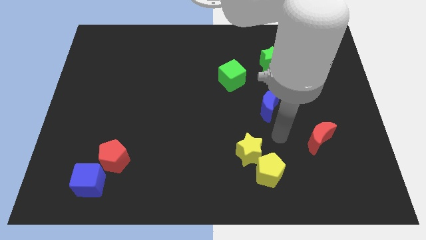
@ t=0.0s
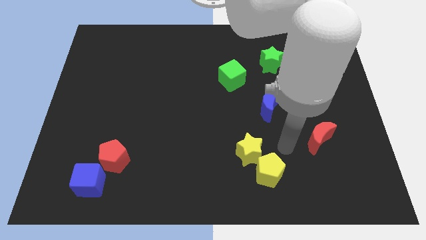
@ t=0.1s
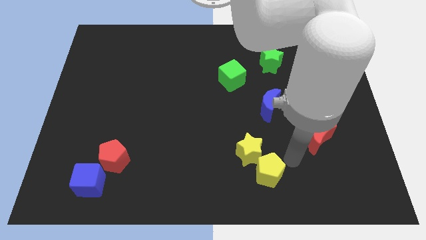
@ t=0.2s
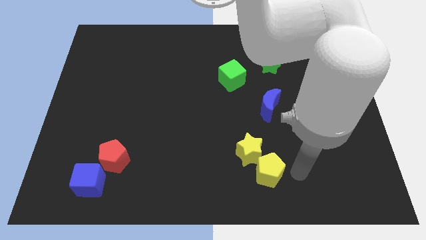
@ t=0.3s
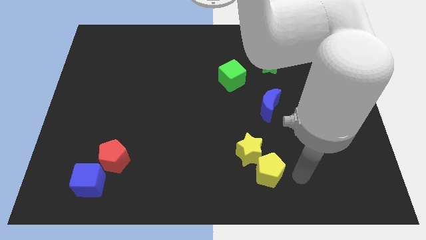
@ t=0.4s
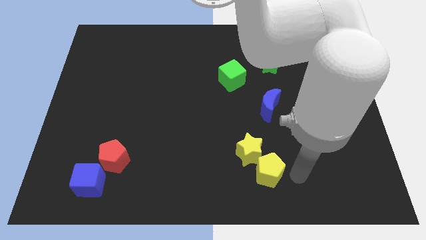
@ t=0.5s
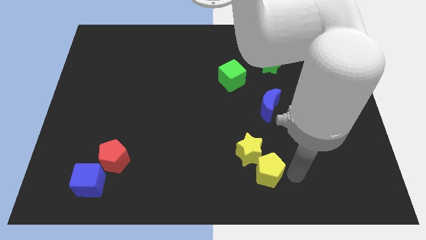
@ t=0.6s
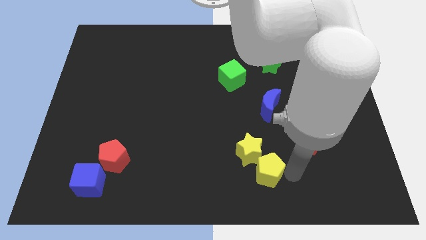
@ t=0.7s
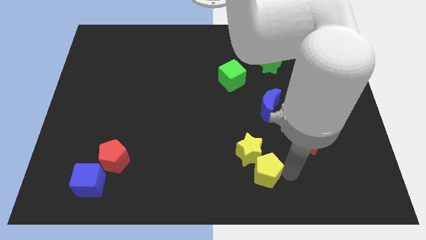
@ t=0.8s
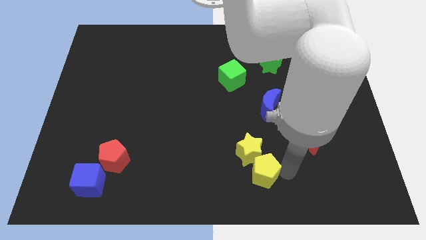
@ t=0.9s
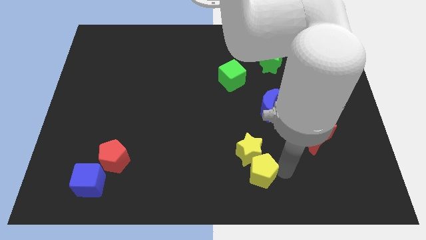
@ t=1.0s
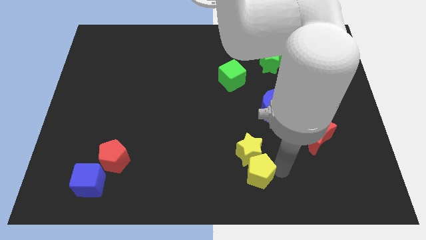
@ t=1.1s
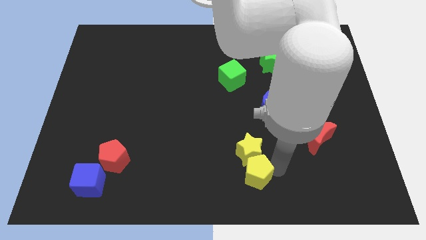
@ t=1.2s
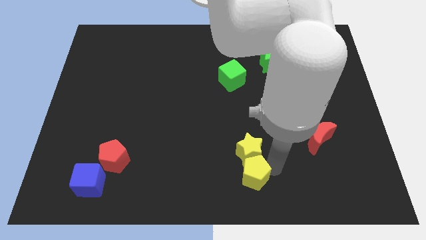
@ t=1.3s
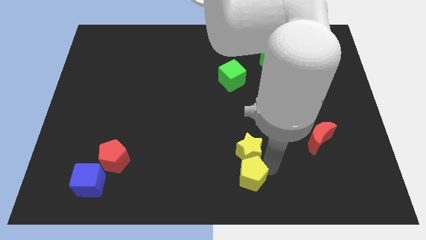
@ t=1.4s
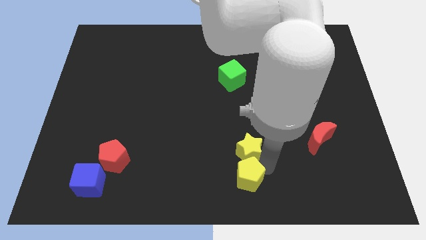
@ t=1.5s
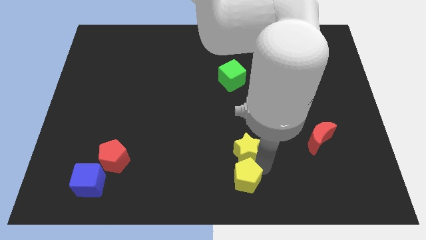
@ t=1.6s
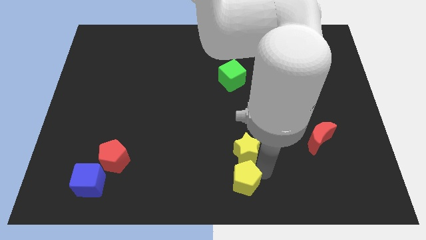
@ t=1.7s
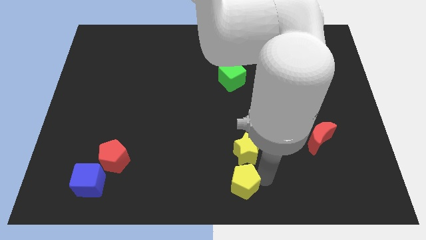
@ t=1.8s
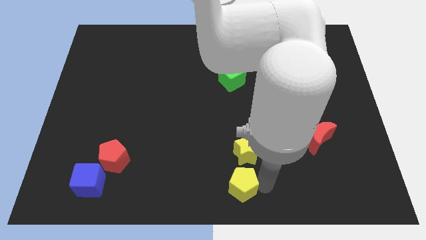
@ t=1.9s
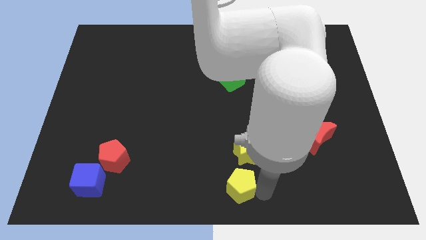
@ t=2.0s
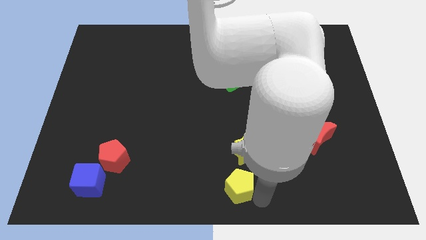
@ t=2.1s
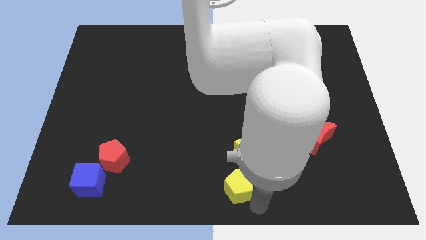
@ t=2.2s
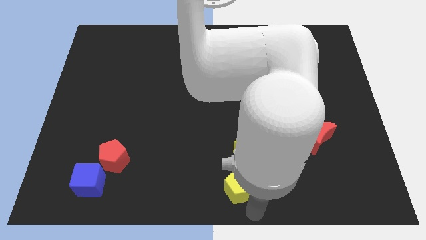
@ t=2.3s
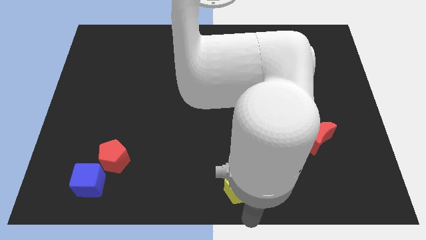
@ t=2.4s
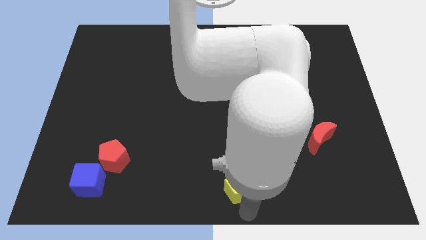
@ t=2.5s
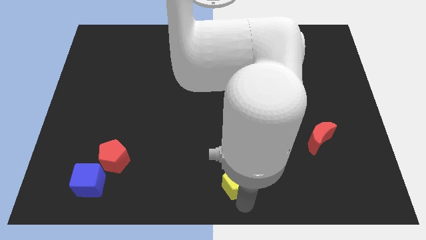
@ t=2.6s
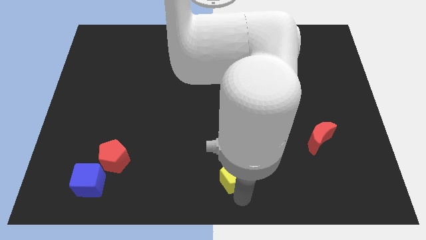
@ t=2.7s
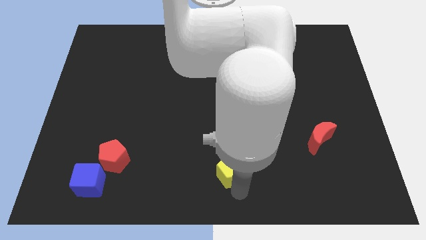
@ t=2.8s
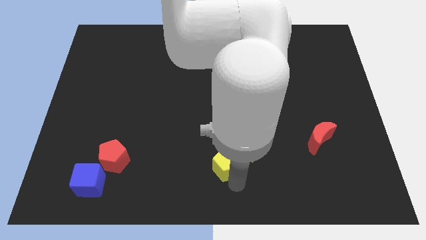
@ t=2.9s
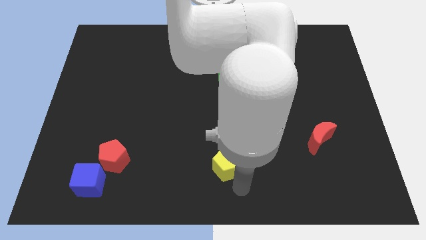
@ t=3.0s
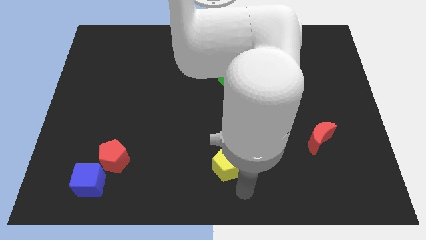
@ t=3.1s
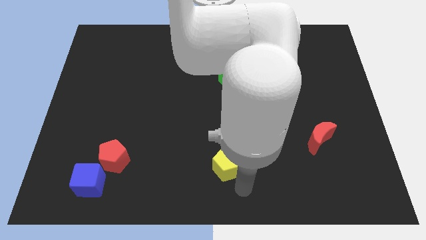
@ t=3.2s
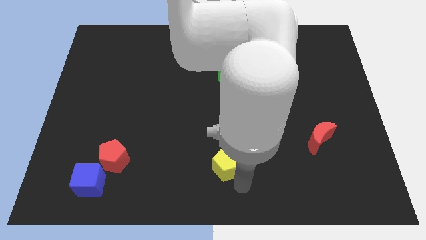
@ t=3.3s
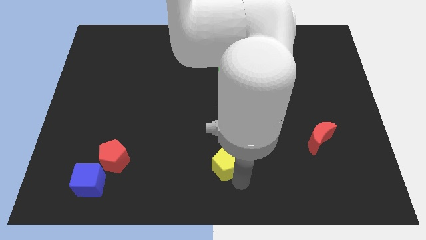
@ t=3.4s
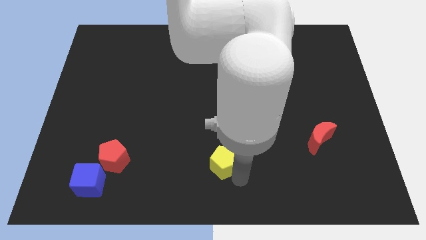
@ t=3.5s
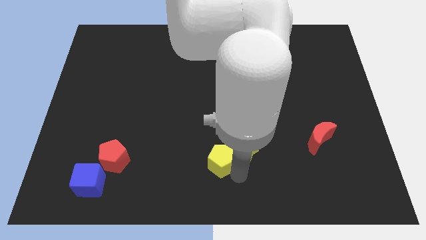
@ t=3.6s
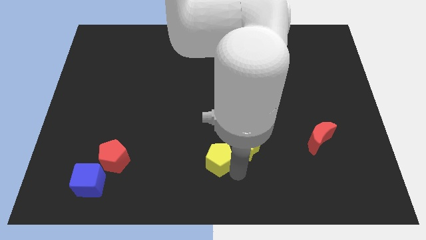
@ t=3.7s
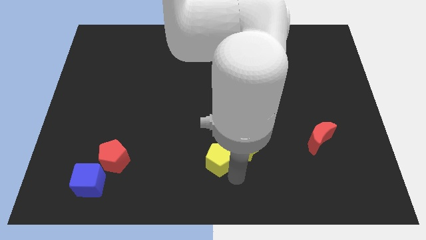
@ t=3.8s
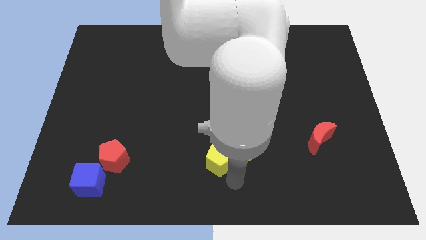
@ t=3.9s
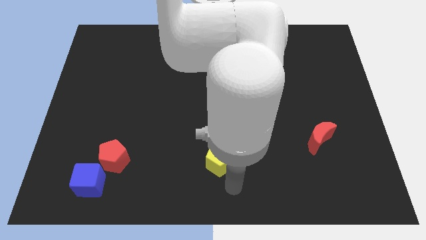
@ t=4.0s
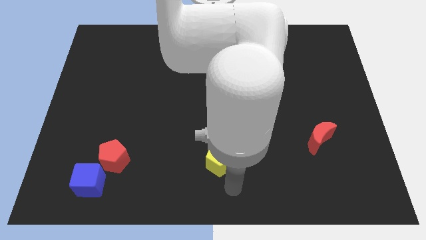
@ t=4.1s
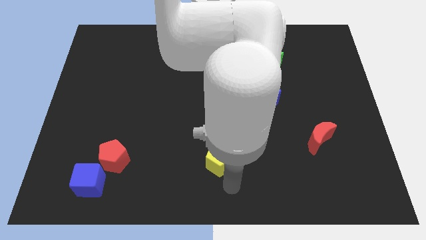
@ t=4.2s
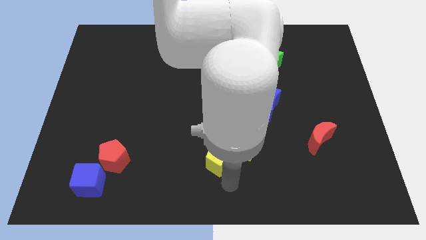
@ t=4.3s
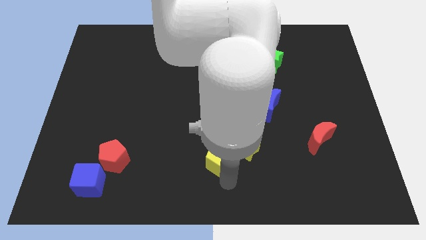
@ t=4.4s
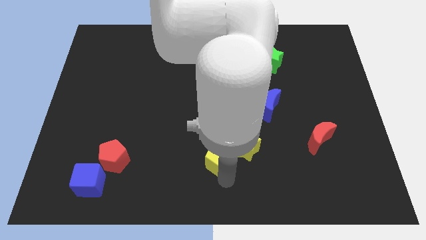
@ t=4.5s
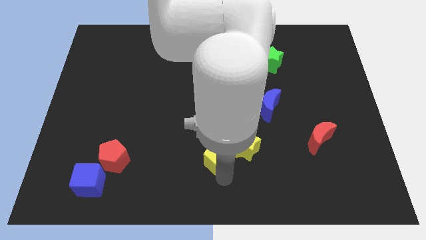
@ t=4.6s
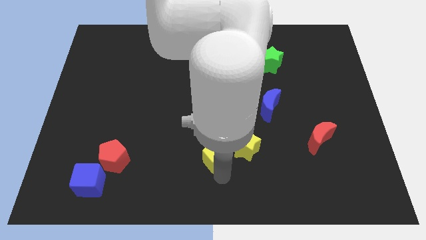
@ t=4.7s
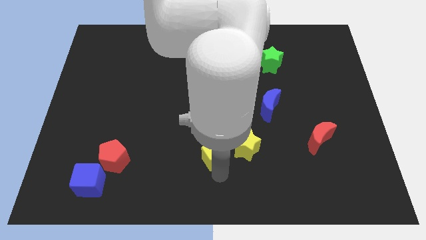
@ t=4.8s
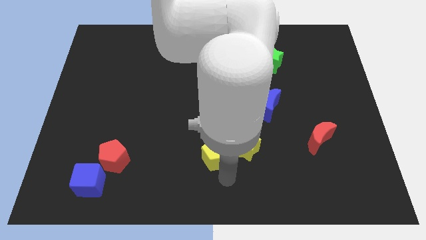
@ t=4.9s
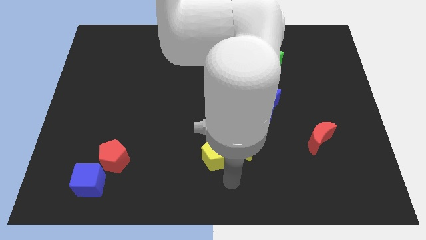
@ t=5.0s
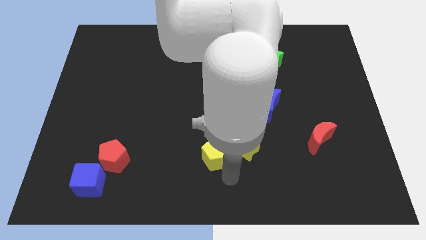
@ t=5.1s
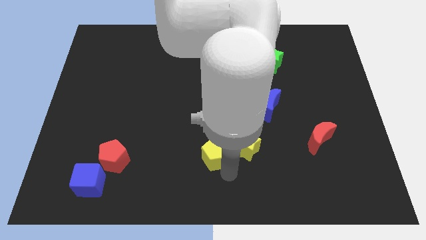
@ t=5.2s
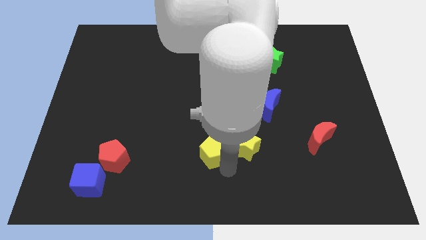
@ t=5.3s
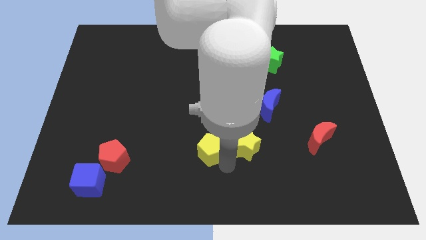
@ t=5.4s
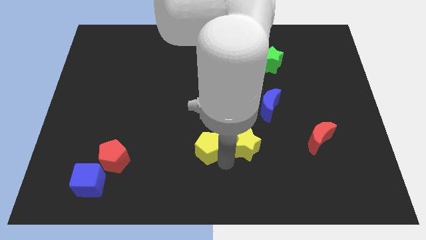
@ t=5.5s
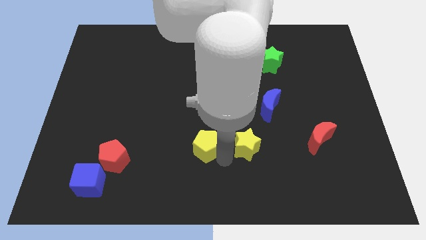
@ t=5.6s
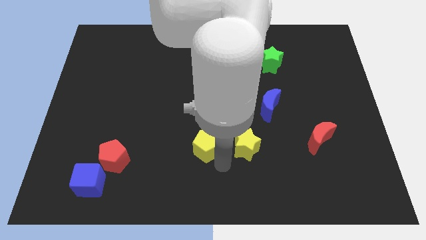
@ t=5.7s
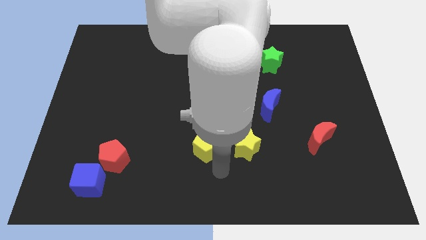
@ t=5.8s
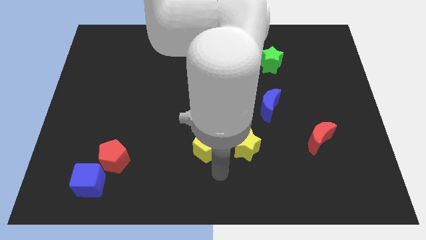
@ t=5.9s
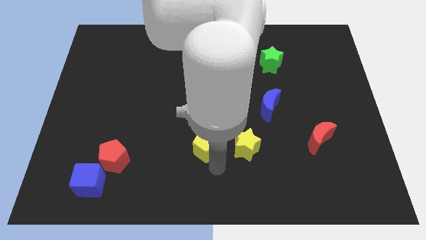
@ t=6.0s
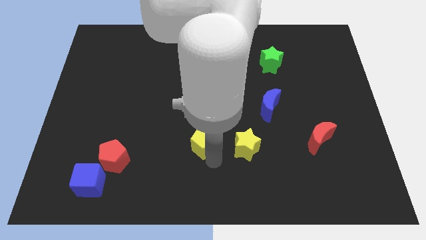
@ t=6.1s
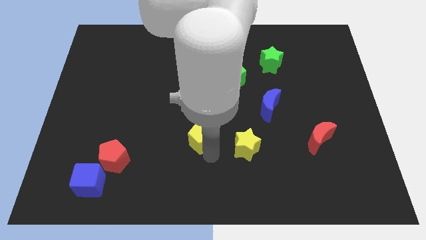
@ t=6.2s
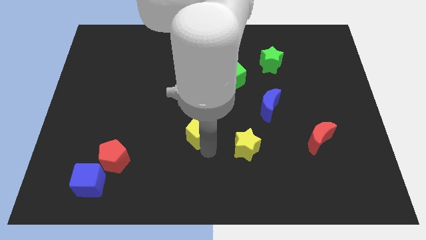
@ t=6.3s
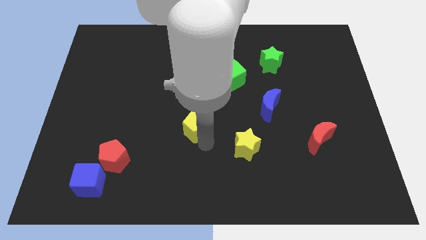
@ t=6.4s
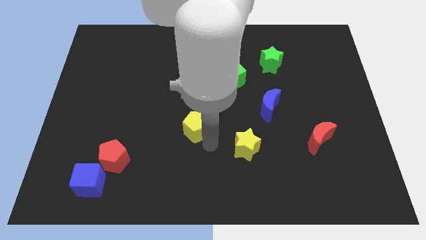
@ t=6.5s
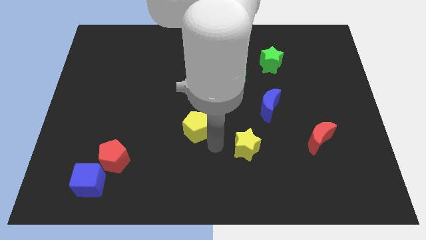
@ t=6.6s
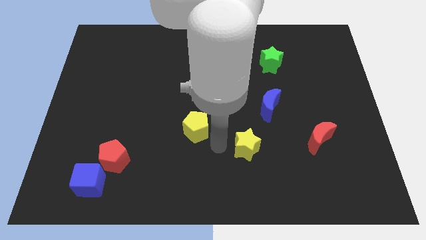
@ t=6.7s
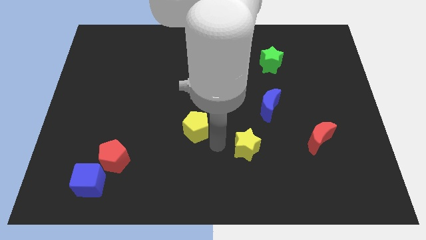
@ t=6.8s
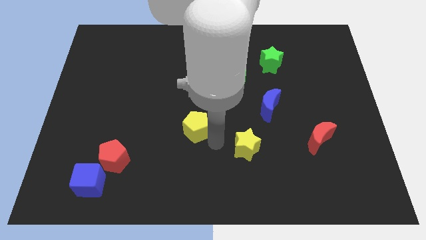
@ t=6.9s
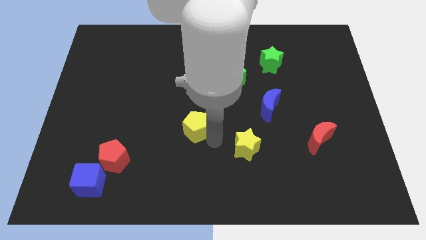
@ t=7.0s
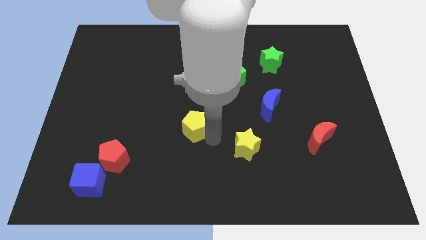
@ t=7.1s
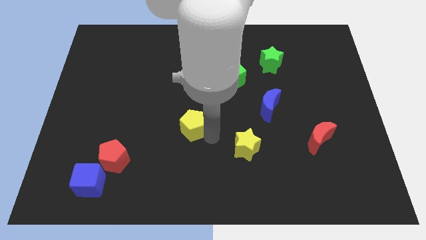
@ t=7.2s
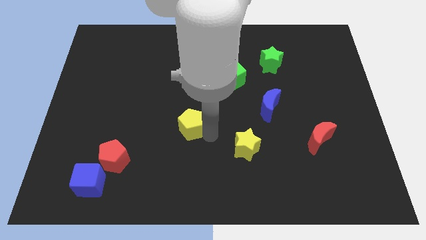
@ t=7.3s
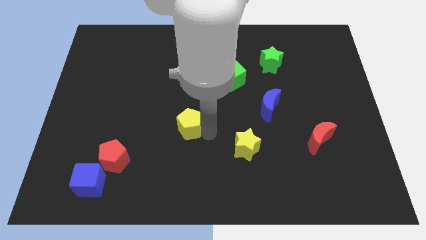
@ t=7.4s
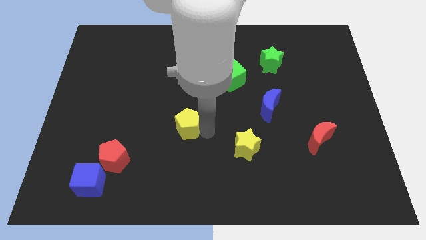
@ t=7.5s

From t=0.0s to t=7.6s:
move the yellow pentagon up and then left

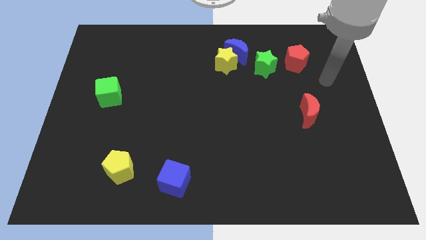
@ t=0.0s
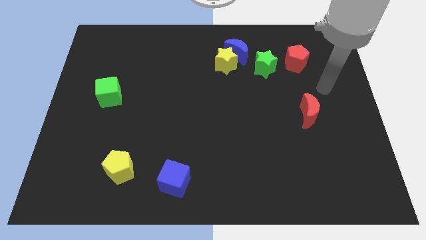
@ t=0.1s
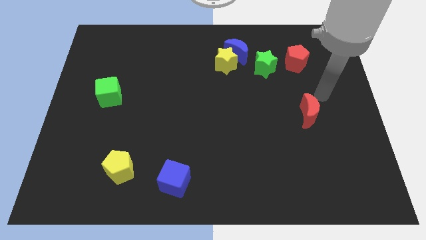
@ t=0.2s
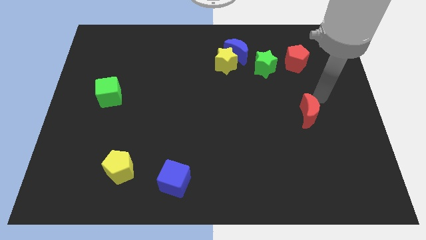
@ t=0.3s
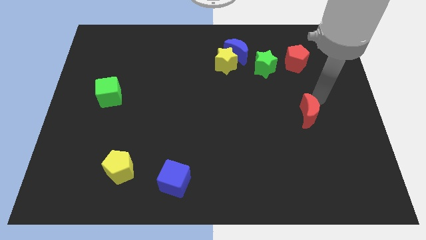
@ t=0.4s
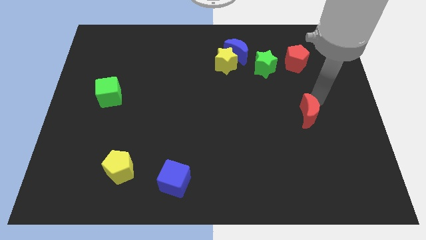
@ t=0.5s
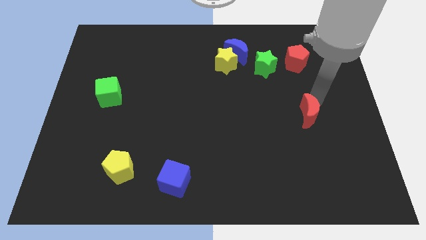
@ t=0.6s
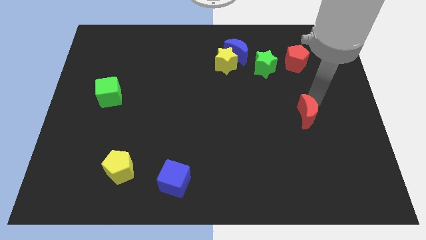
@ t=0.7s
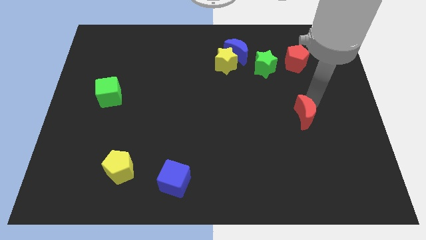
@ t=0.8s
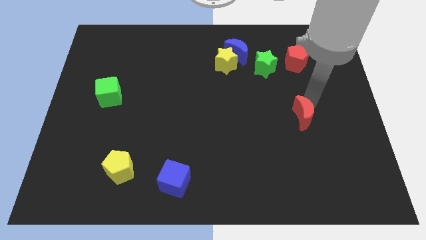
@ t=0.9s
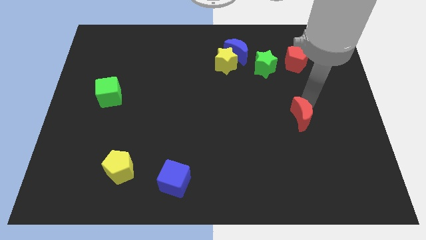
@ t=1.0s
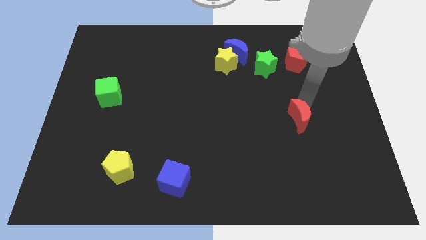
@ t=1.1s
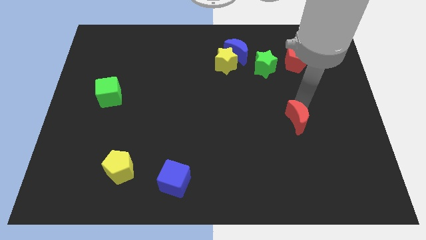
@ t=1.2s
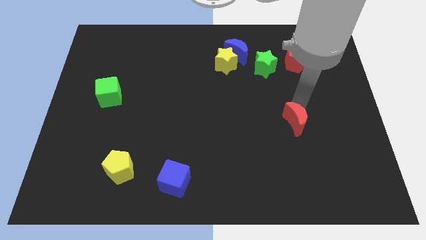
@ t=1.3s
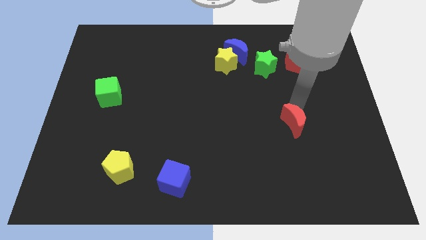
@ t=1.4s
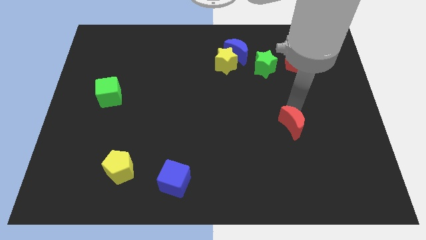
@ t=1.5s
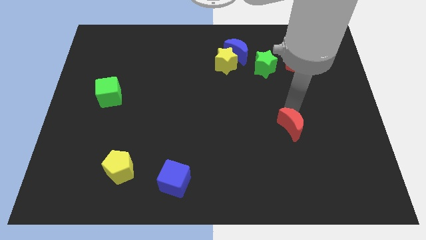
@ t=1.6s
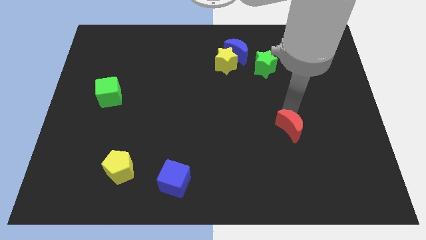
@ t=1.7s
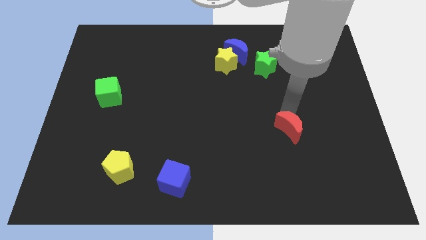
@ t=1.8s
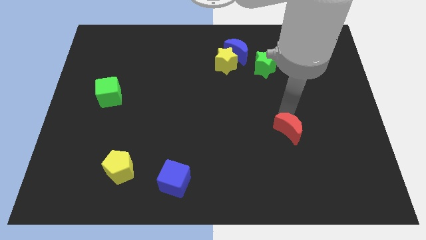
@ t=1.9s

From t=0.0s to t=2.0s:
slide the red moon diagonally downwards and left a little
